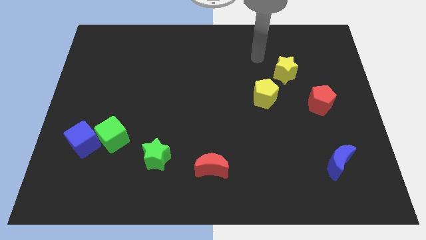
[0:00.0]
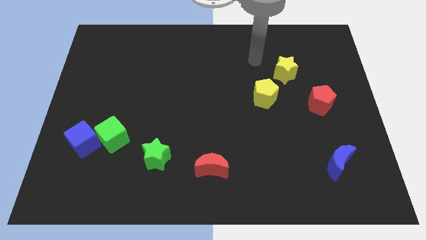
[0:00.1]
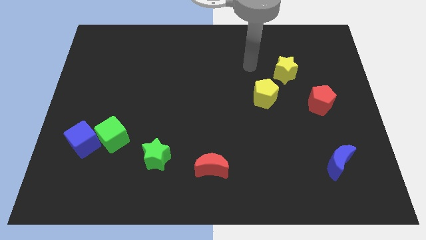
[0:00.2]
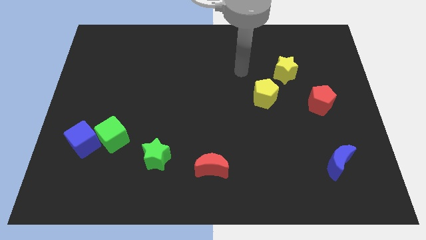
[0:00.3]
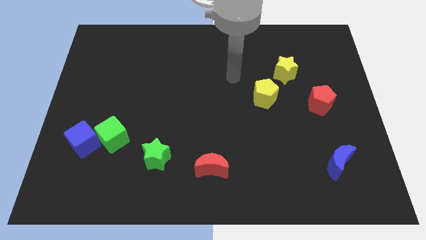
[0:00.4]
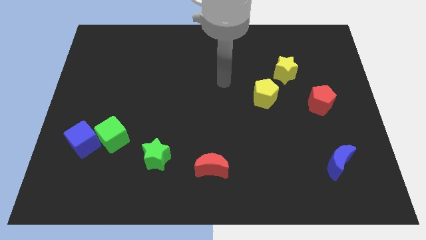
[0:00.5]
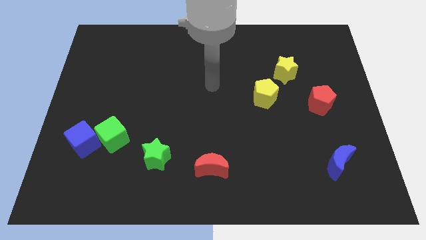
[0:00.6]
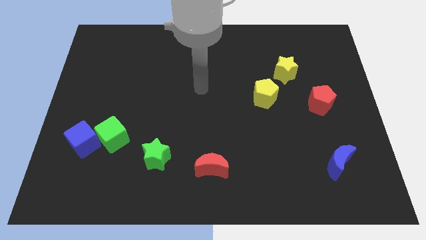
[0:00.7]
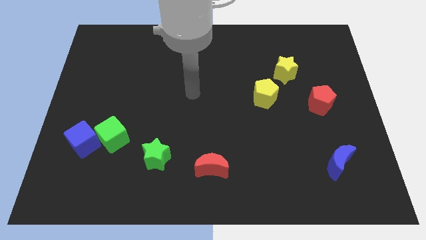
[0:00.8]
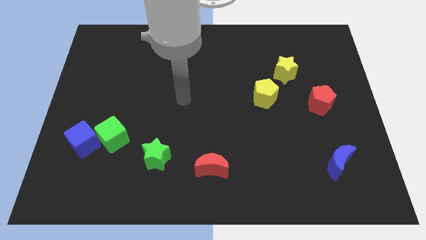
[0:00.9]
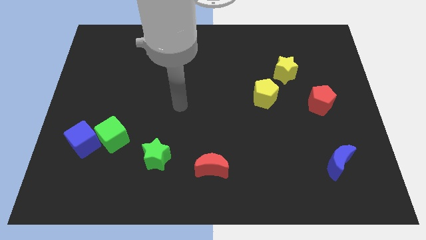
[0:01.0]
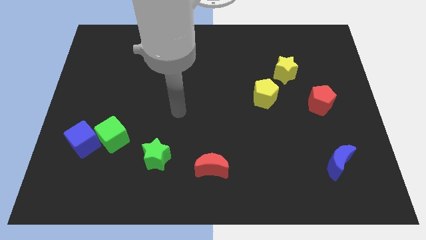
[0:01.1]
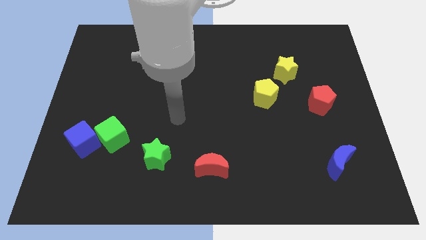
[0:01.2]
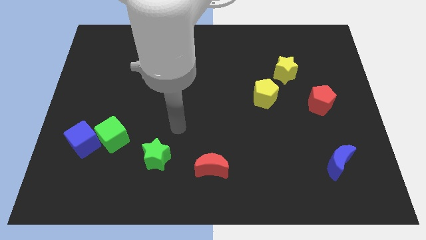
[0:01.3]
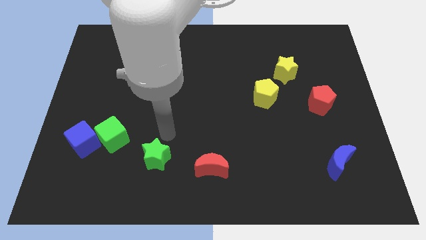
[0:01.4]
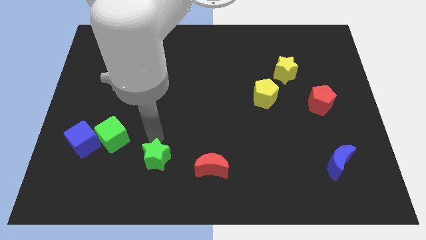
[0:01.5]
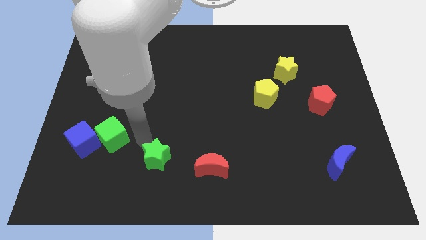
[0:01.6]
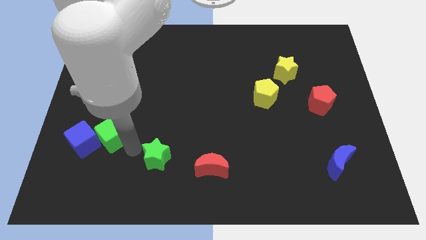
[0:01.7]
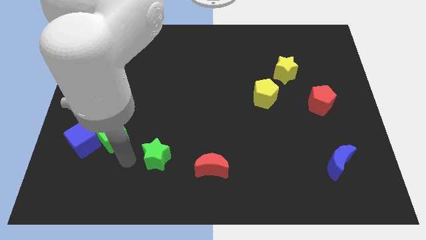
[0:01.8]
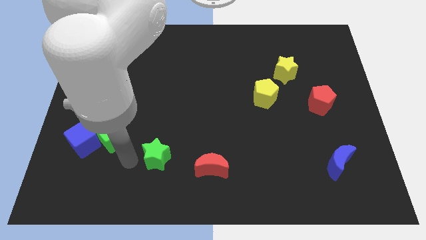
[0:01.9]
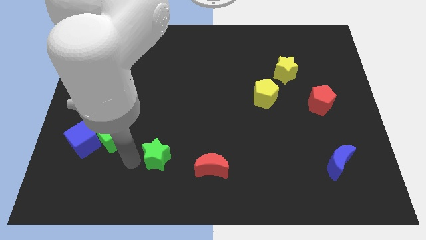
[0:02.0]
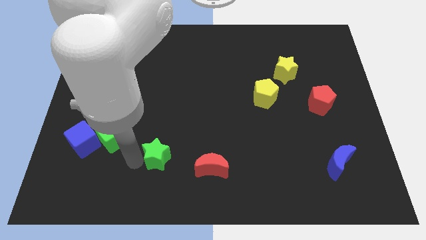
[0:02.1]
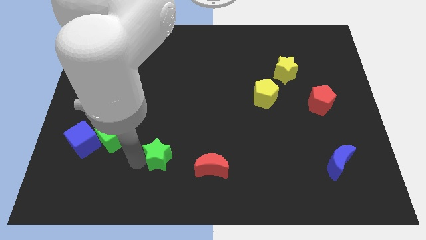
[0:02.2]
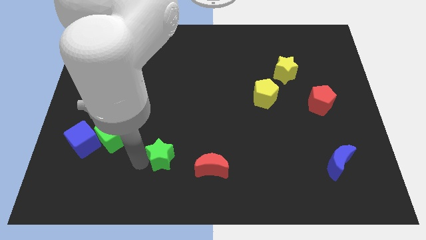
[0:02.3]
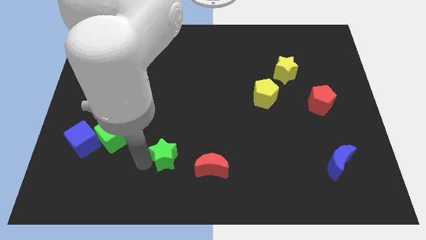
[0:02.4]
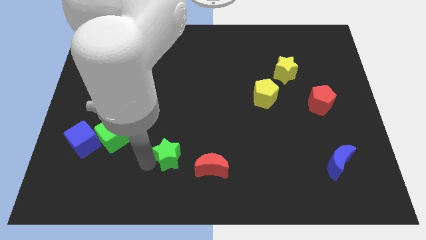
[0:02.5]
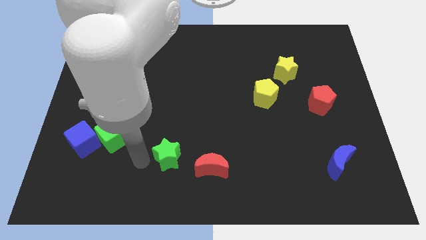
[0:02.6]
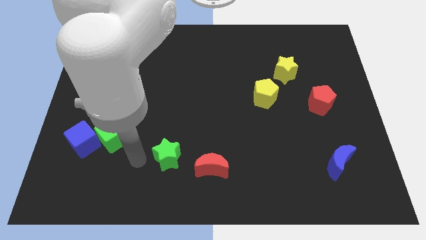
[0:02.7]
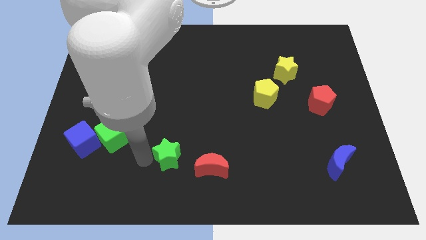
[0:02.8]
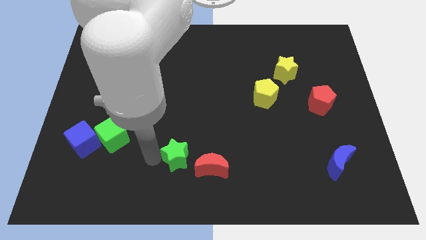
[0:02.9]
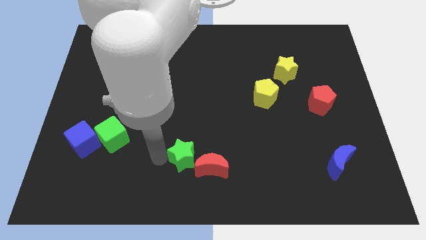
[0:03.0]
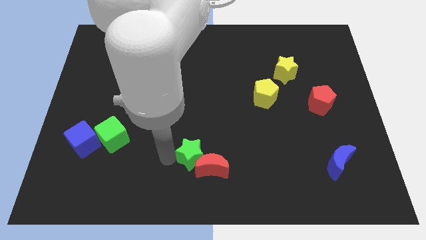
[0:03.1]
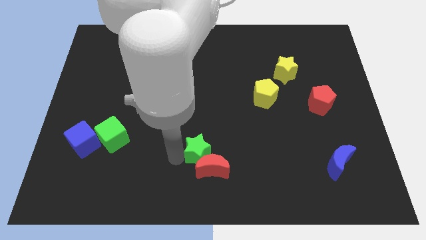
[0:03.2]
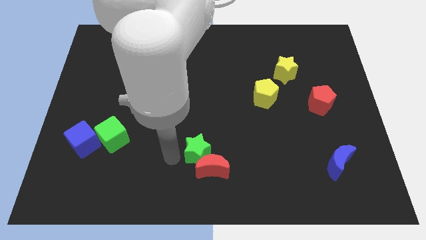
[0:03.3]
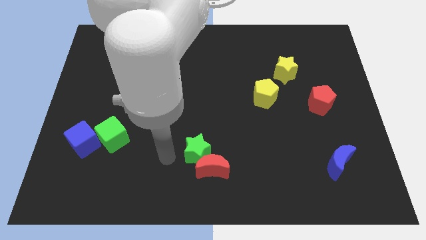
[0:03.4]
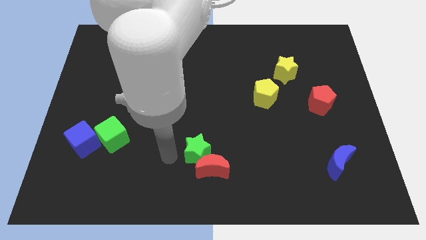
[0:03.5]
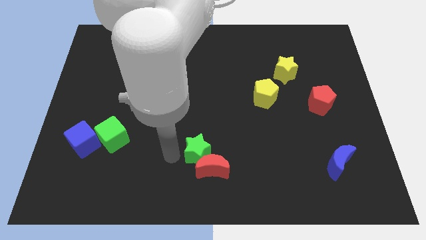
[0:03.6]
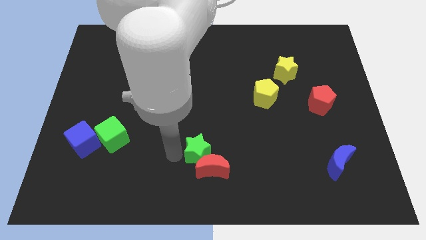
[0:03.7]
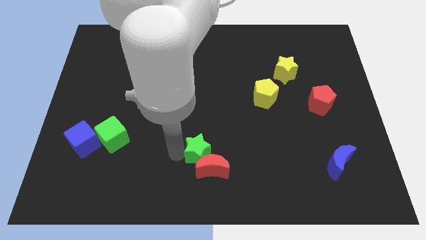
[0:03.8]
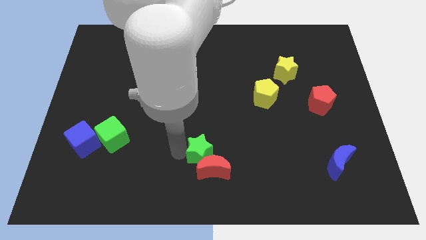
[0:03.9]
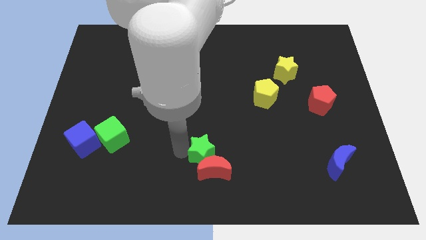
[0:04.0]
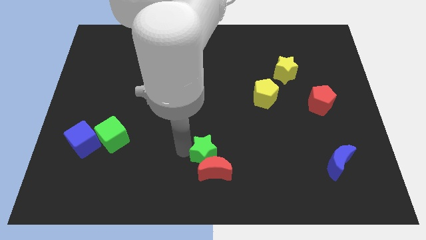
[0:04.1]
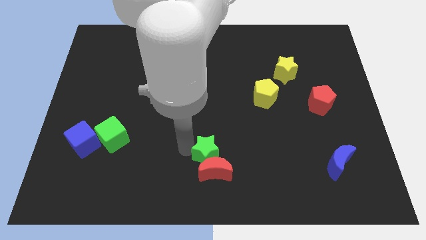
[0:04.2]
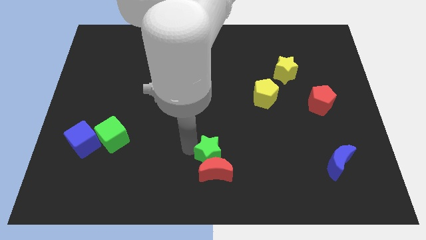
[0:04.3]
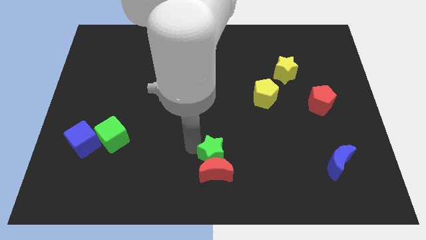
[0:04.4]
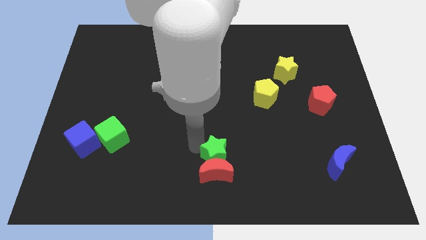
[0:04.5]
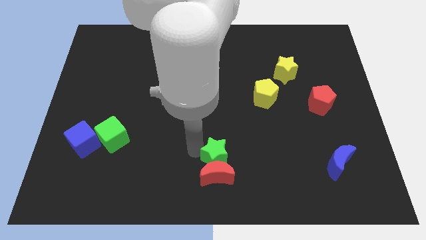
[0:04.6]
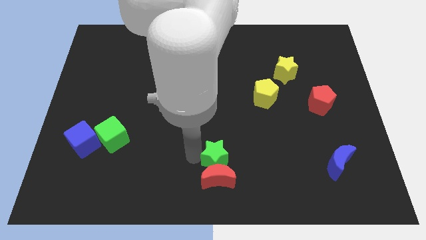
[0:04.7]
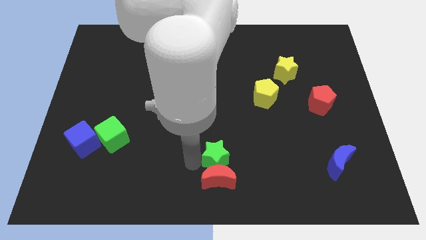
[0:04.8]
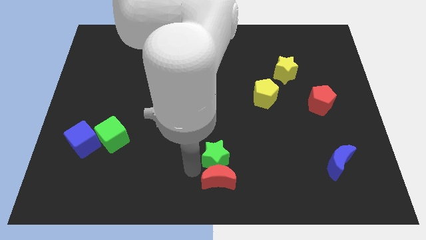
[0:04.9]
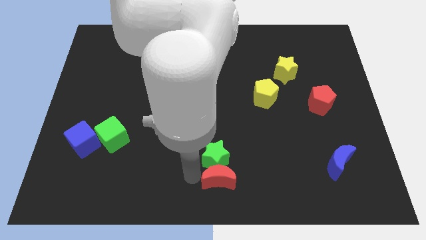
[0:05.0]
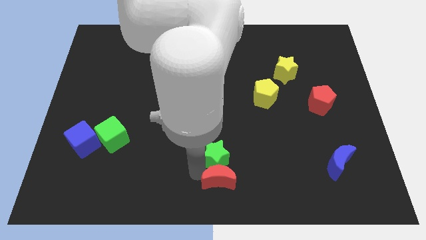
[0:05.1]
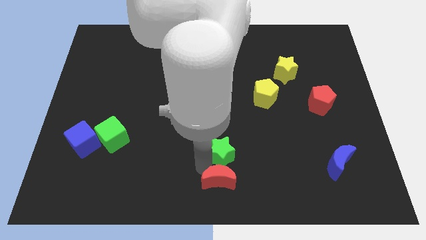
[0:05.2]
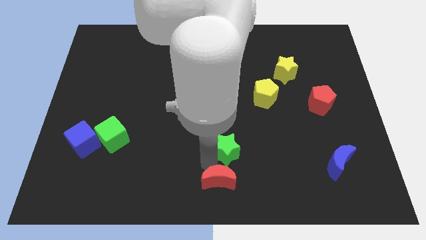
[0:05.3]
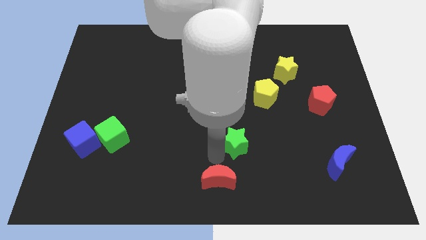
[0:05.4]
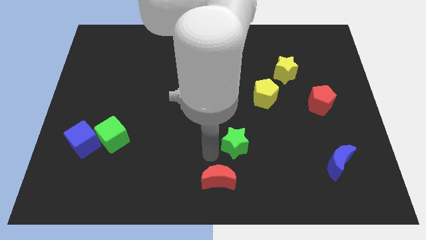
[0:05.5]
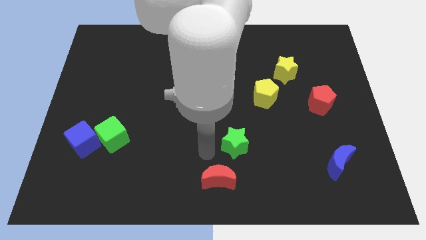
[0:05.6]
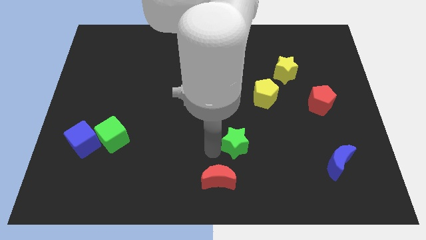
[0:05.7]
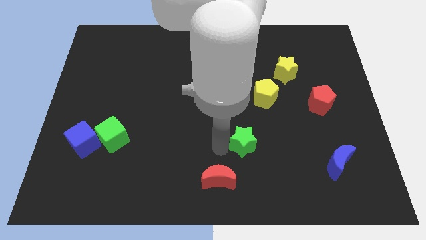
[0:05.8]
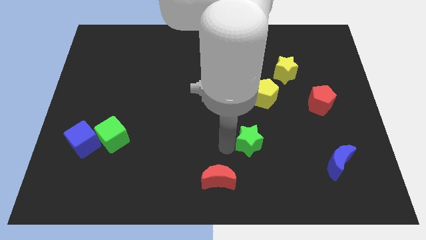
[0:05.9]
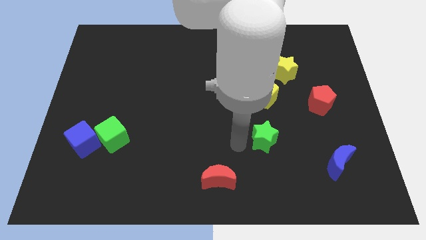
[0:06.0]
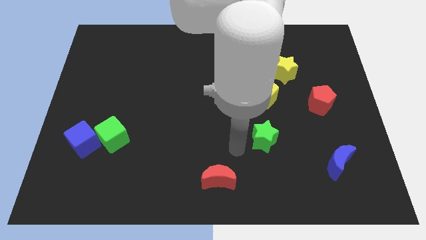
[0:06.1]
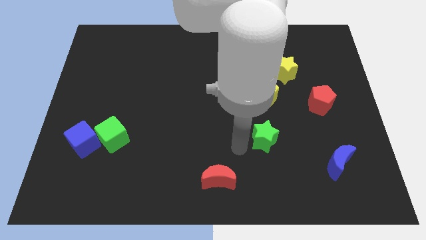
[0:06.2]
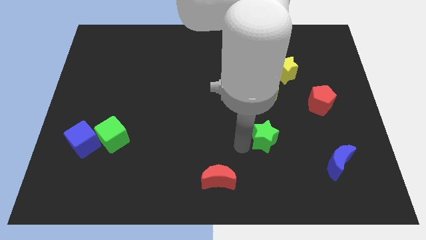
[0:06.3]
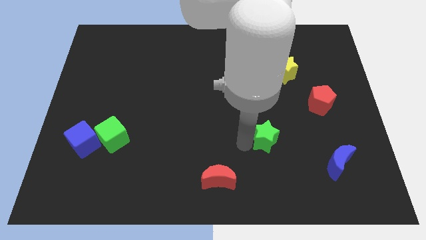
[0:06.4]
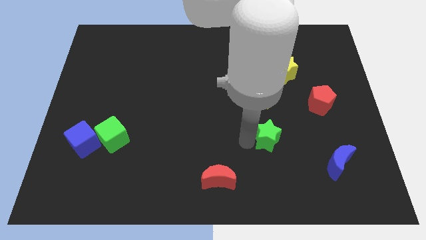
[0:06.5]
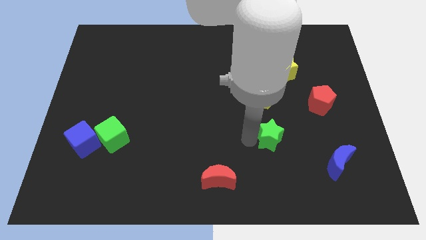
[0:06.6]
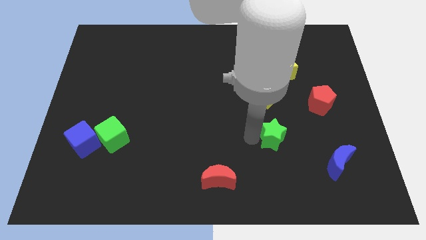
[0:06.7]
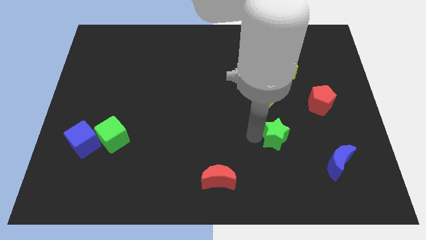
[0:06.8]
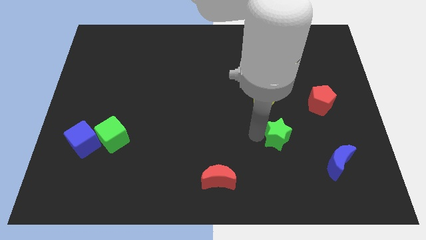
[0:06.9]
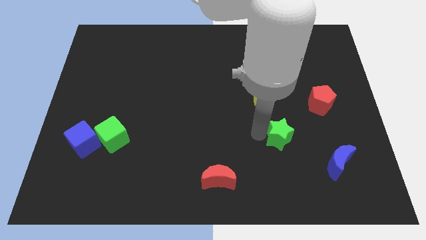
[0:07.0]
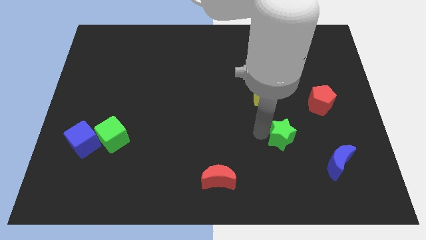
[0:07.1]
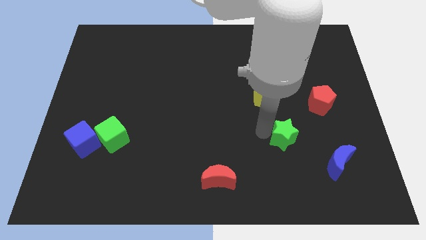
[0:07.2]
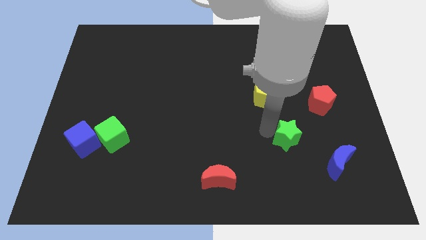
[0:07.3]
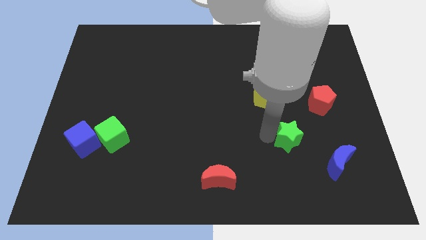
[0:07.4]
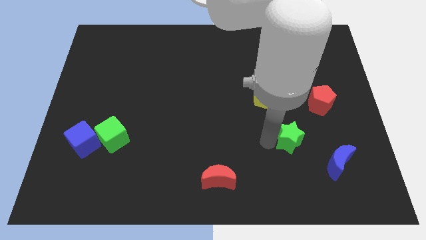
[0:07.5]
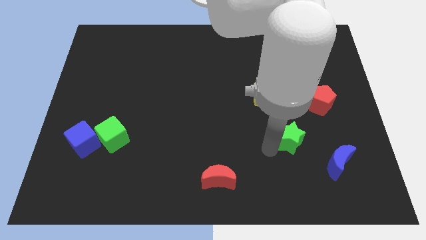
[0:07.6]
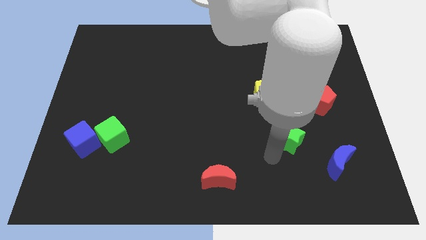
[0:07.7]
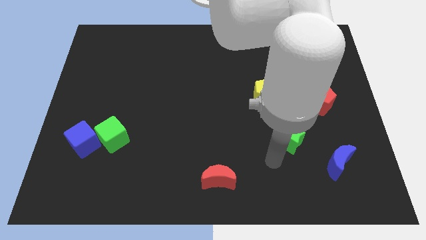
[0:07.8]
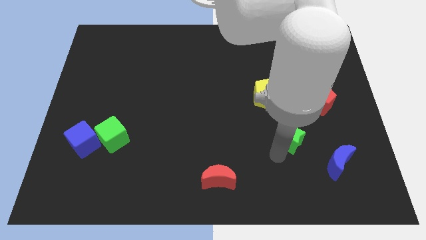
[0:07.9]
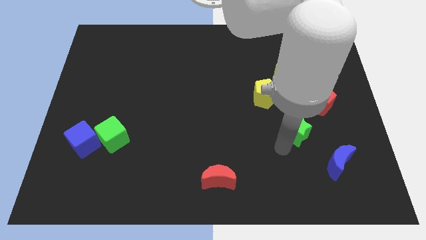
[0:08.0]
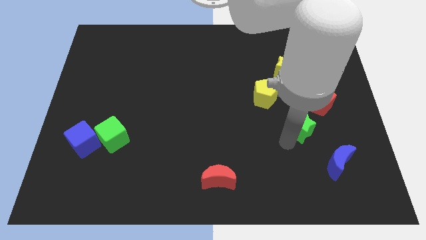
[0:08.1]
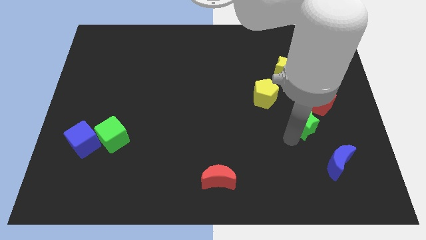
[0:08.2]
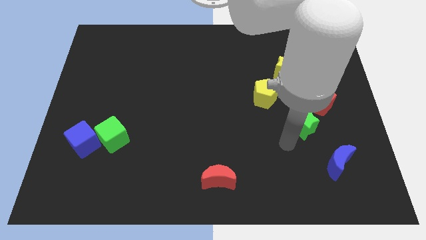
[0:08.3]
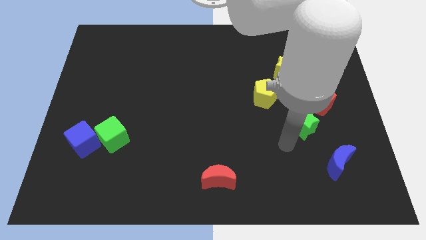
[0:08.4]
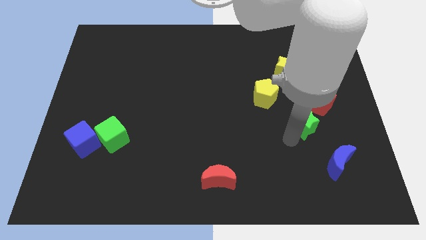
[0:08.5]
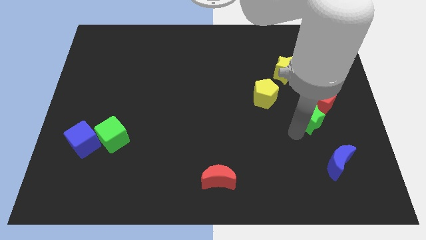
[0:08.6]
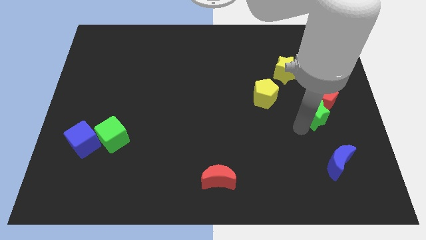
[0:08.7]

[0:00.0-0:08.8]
slide the green star next to the red pentagon
